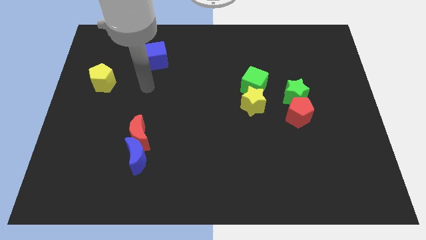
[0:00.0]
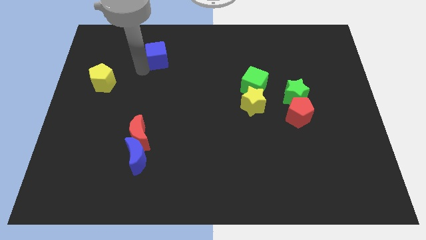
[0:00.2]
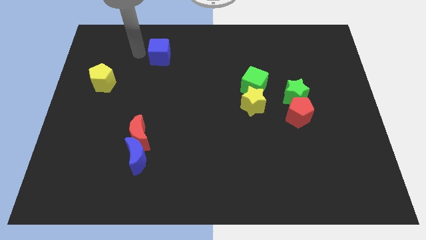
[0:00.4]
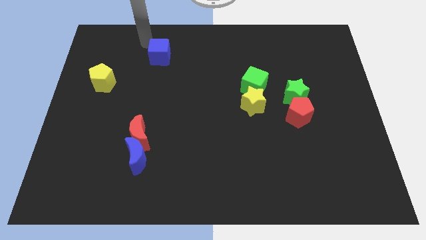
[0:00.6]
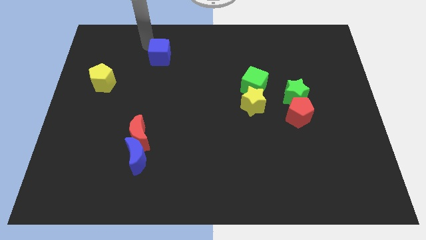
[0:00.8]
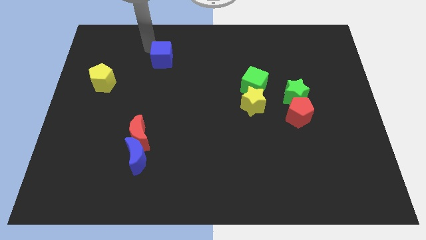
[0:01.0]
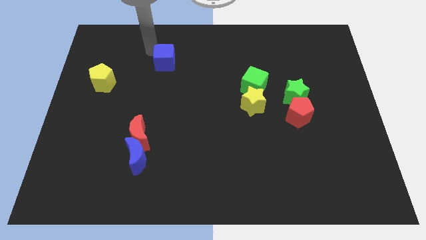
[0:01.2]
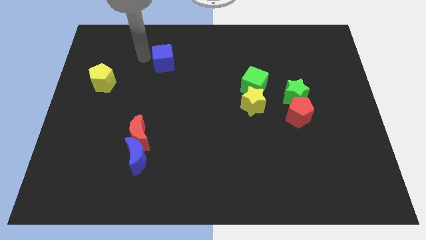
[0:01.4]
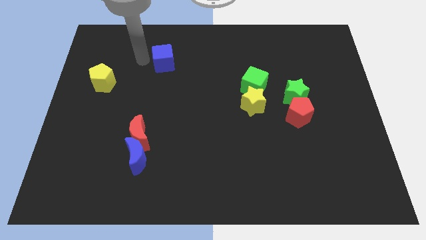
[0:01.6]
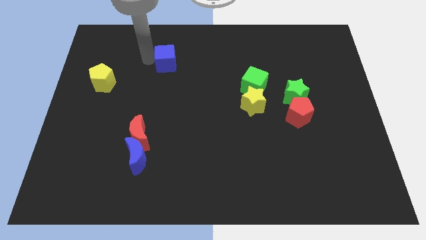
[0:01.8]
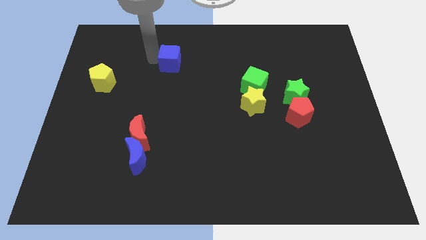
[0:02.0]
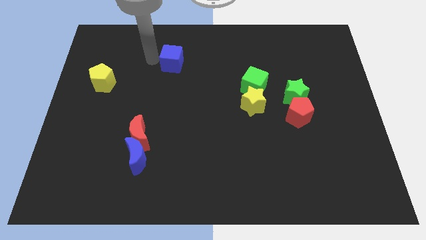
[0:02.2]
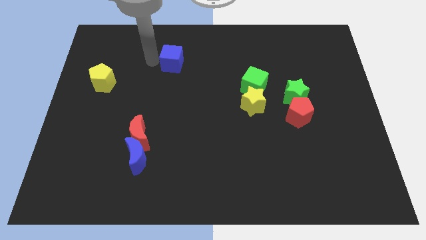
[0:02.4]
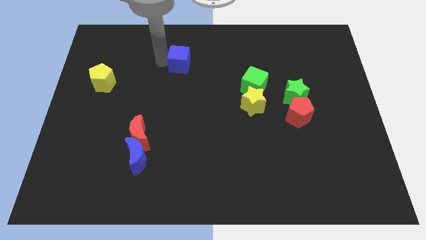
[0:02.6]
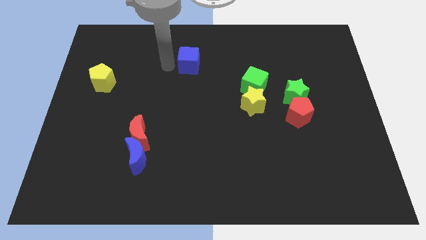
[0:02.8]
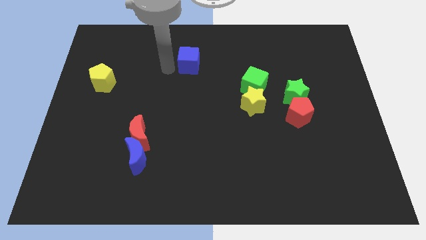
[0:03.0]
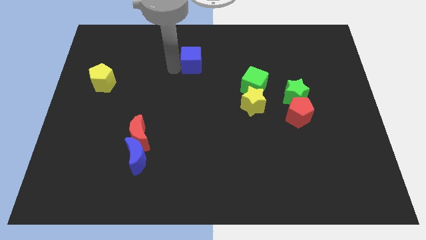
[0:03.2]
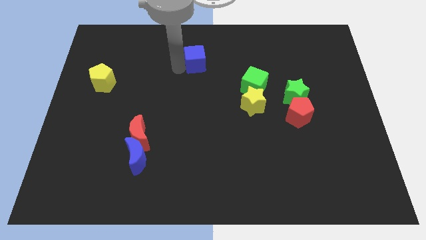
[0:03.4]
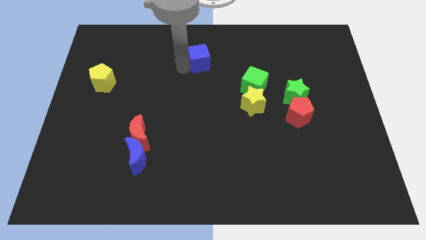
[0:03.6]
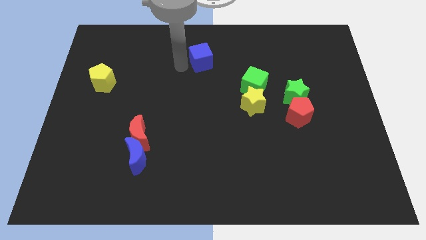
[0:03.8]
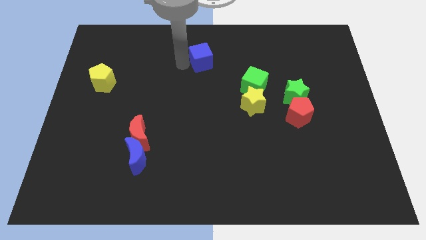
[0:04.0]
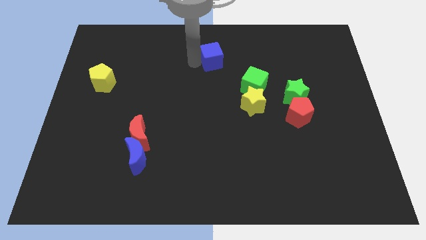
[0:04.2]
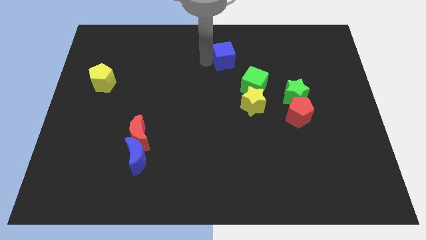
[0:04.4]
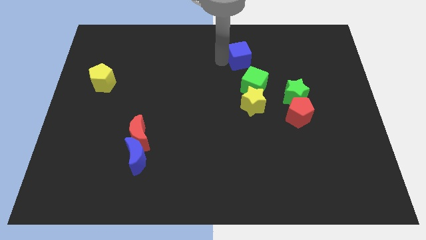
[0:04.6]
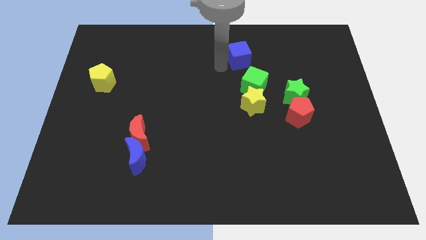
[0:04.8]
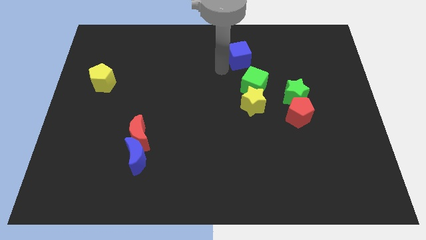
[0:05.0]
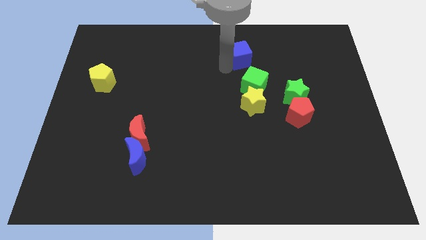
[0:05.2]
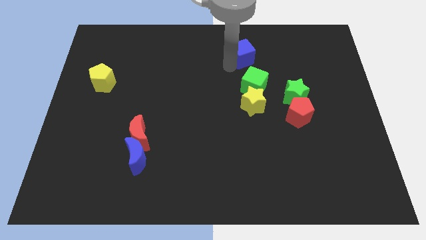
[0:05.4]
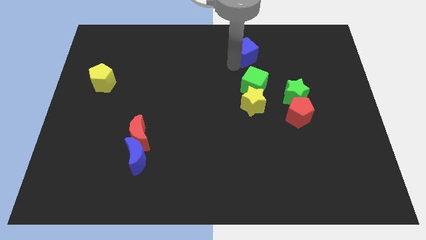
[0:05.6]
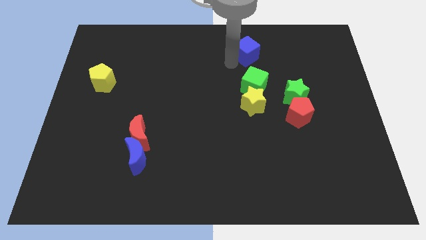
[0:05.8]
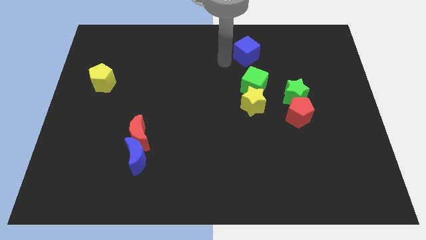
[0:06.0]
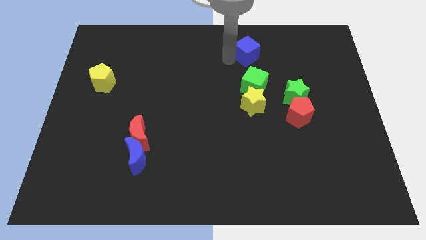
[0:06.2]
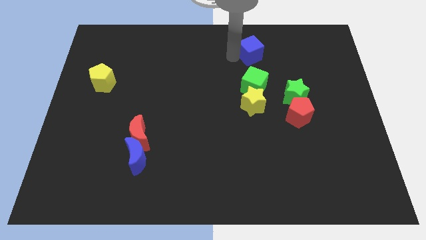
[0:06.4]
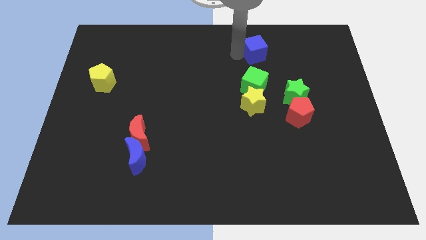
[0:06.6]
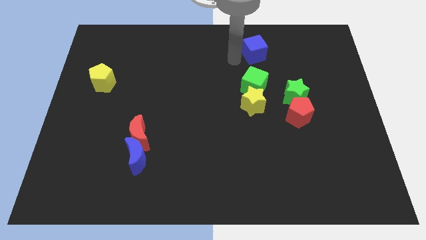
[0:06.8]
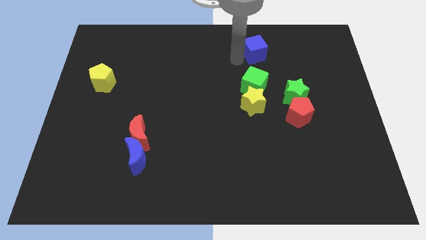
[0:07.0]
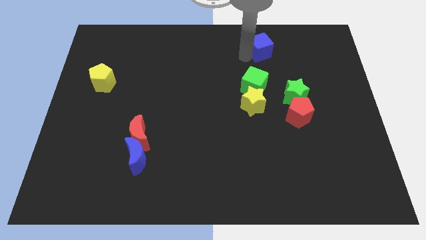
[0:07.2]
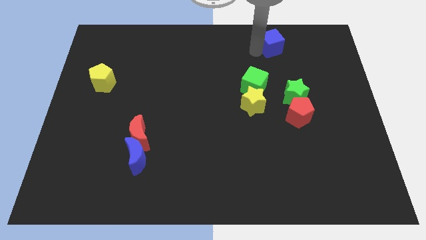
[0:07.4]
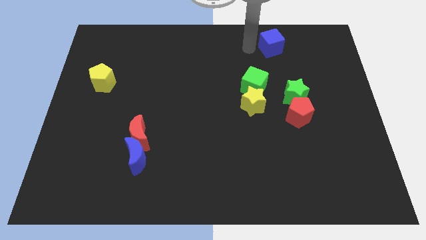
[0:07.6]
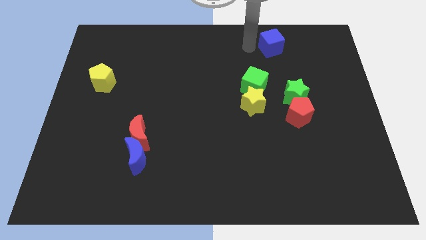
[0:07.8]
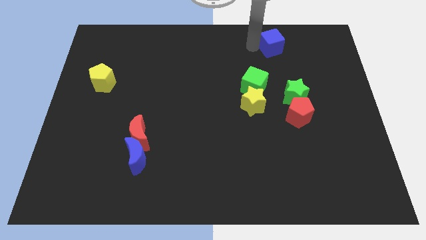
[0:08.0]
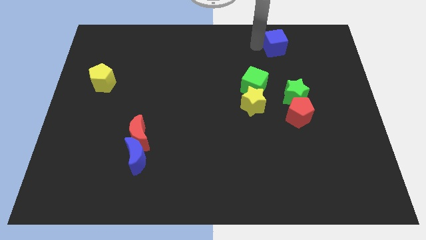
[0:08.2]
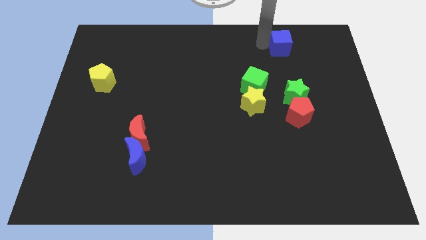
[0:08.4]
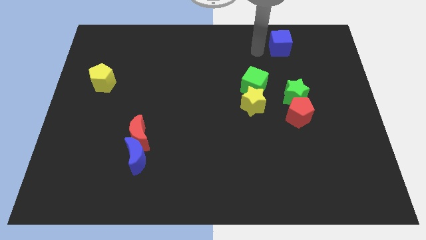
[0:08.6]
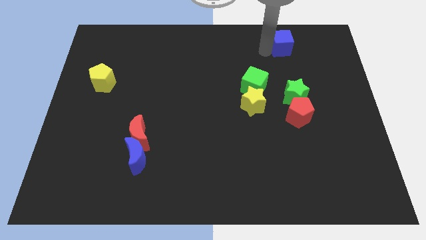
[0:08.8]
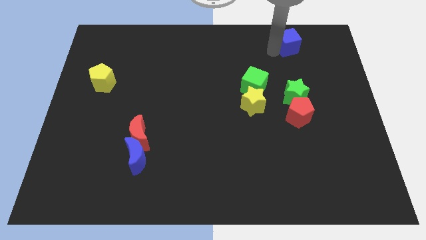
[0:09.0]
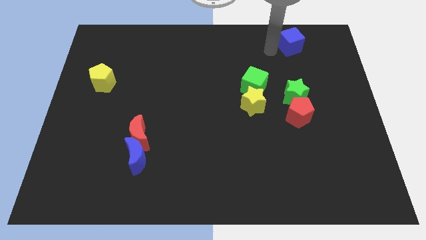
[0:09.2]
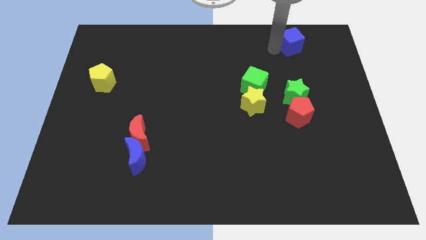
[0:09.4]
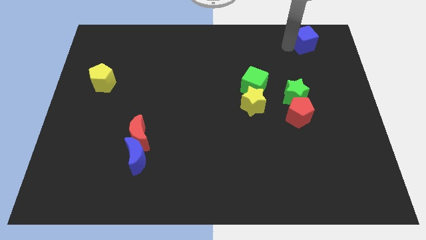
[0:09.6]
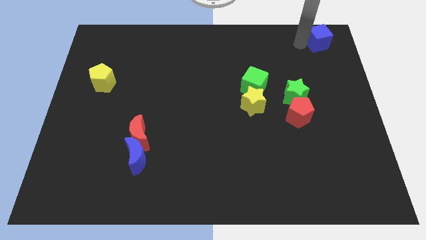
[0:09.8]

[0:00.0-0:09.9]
push the blue cube to the top right of the board

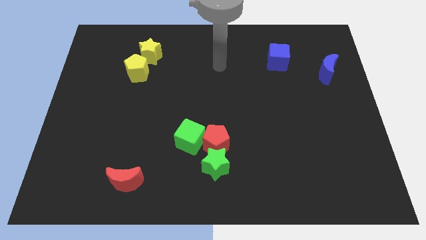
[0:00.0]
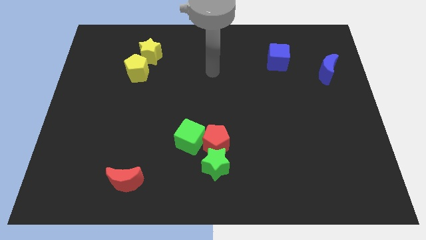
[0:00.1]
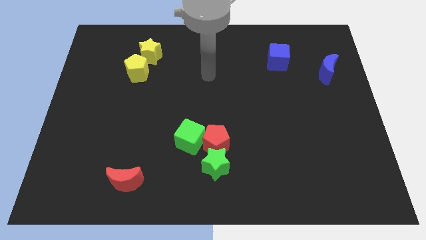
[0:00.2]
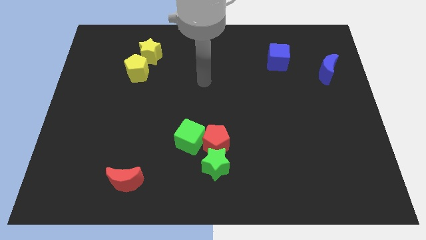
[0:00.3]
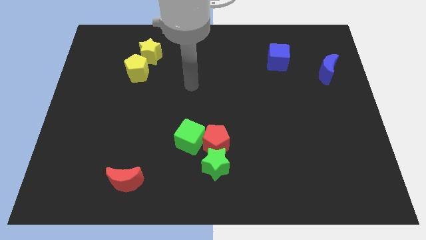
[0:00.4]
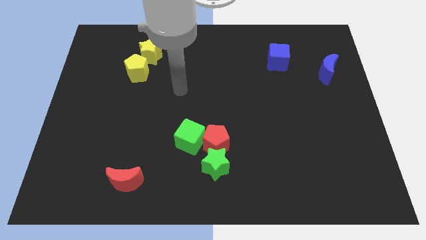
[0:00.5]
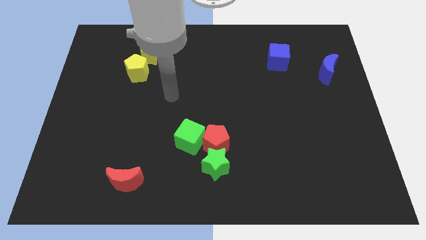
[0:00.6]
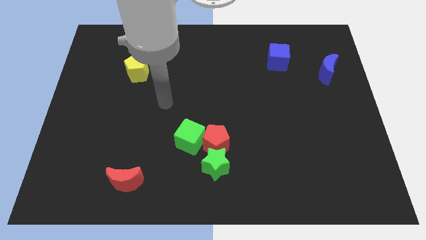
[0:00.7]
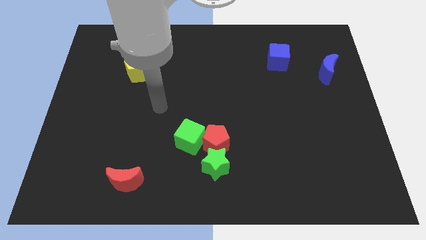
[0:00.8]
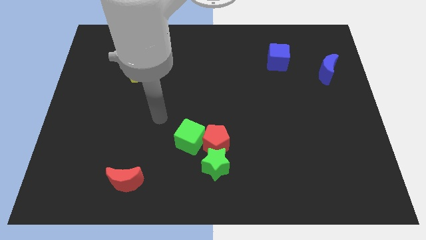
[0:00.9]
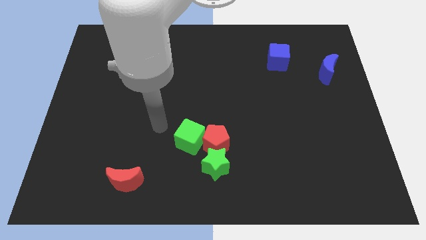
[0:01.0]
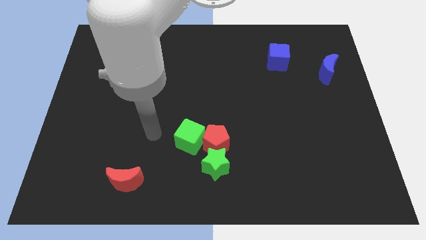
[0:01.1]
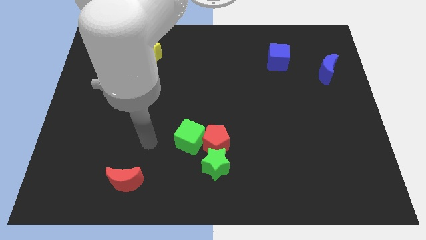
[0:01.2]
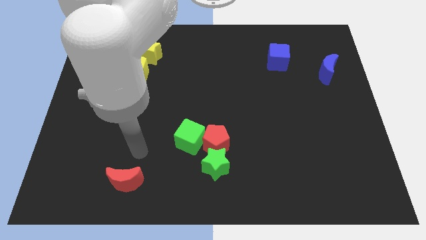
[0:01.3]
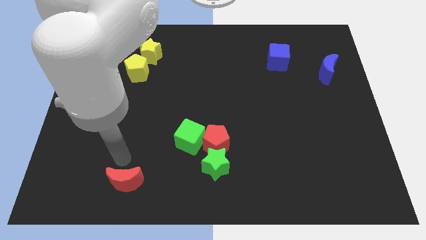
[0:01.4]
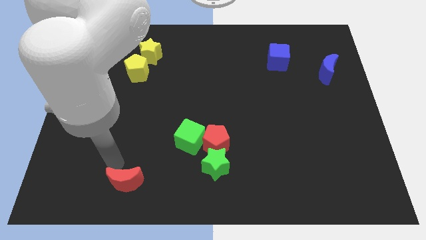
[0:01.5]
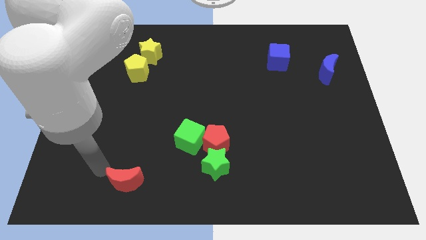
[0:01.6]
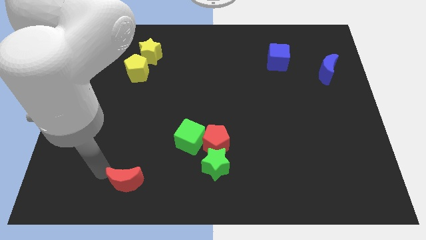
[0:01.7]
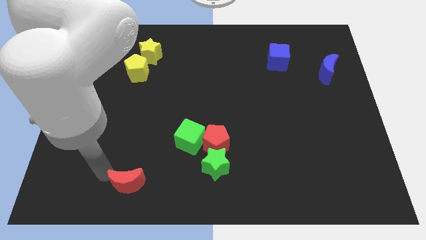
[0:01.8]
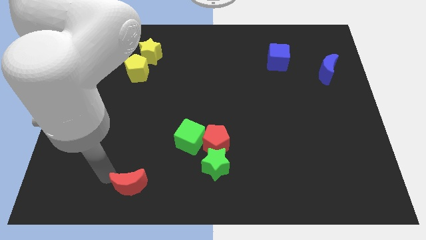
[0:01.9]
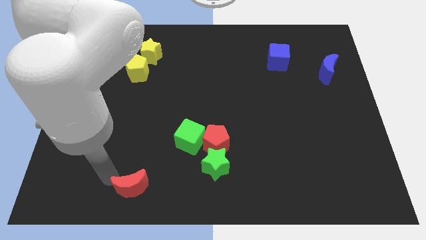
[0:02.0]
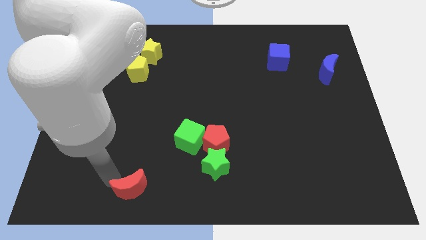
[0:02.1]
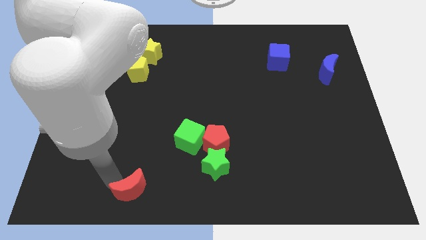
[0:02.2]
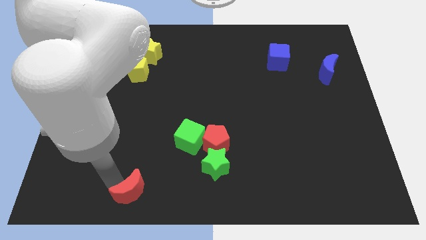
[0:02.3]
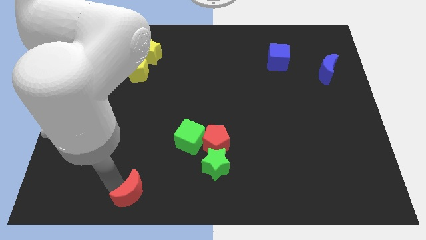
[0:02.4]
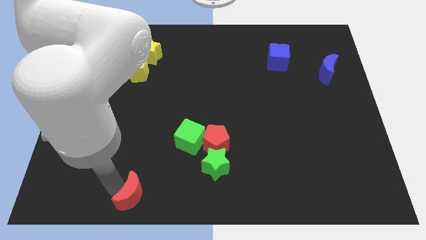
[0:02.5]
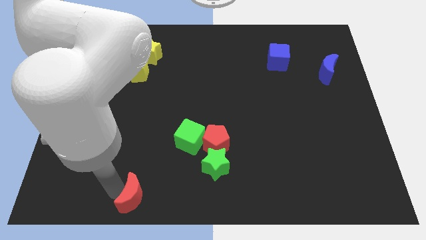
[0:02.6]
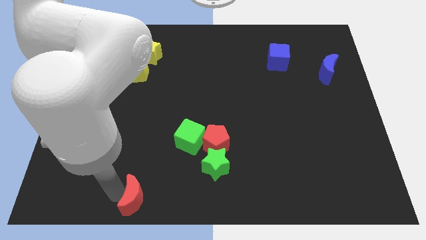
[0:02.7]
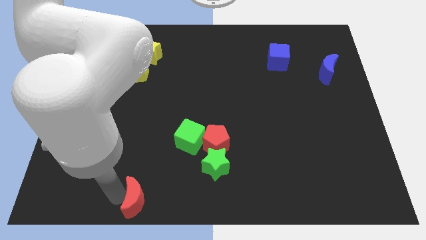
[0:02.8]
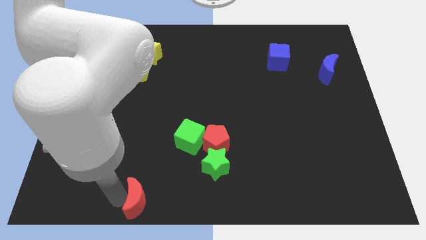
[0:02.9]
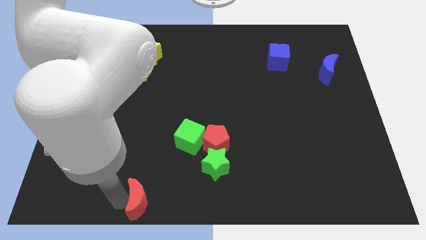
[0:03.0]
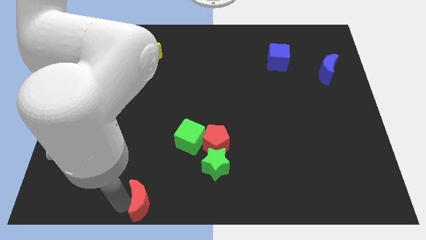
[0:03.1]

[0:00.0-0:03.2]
move the red moon to the bottom
